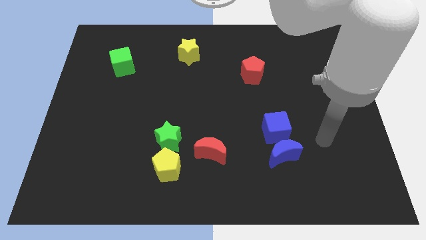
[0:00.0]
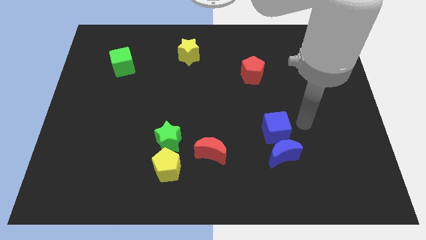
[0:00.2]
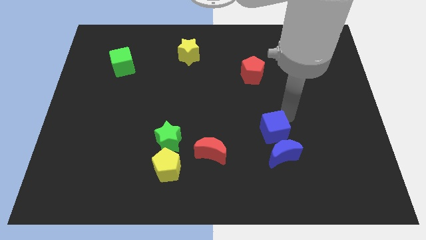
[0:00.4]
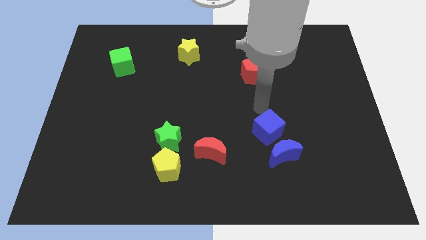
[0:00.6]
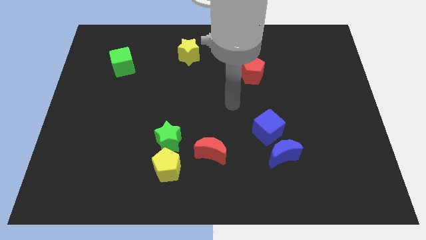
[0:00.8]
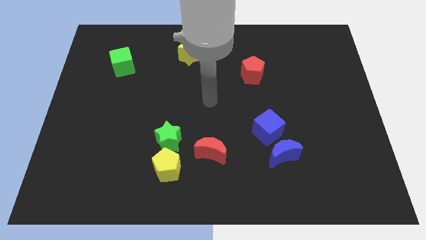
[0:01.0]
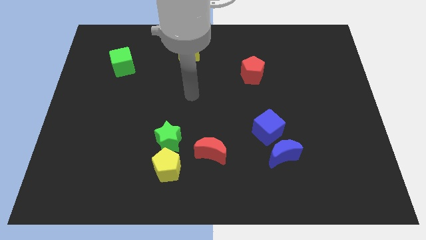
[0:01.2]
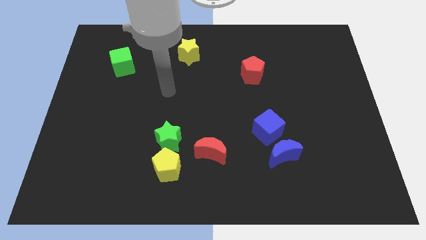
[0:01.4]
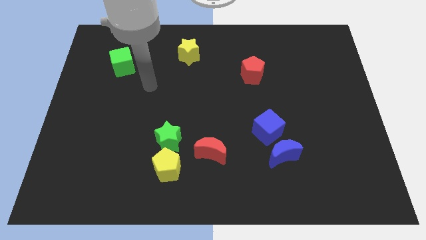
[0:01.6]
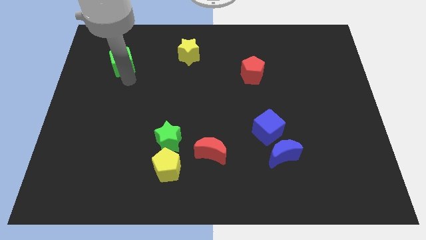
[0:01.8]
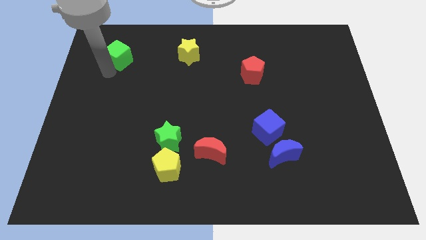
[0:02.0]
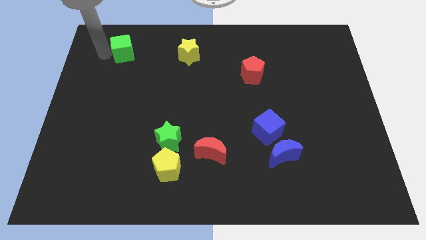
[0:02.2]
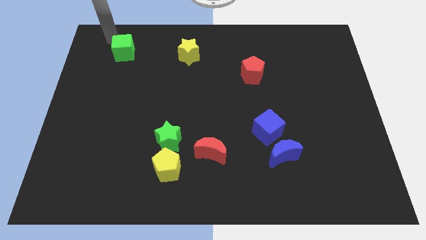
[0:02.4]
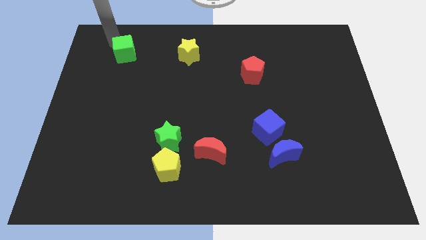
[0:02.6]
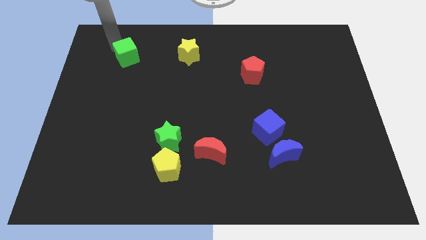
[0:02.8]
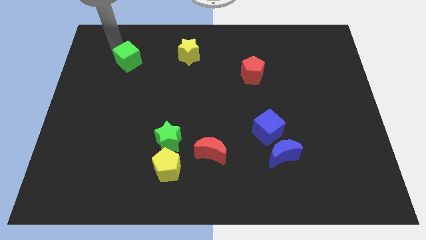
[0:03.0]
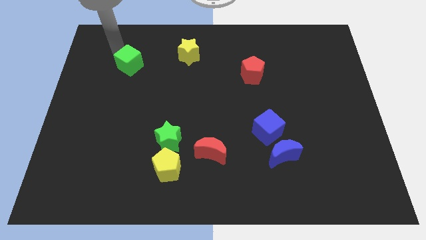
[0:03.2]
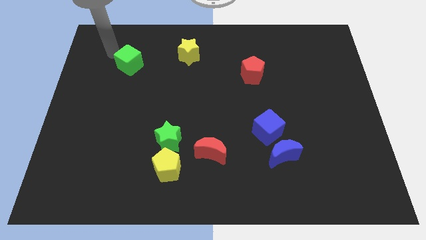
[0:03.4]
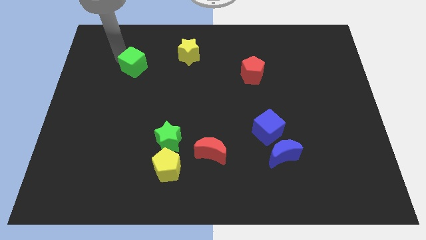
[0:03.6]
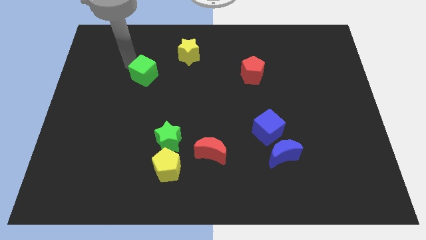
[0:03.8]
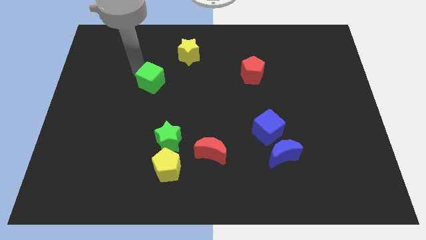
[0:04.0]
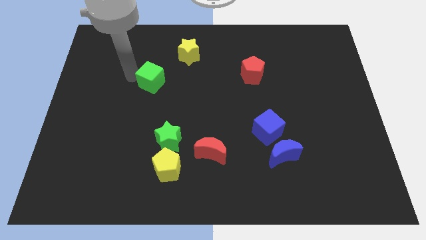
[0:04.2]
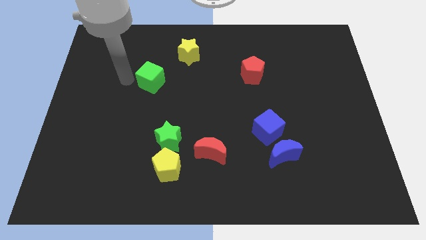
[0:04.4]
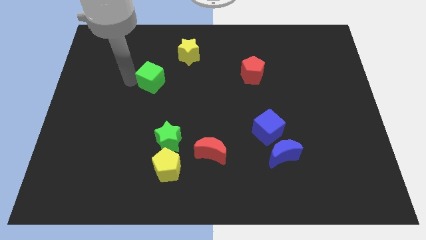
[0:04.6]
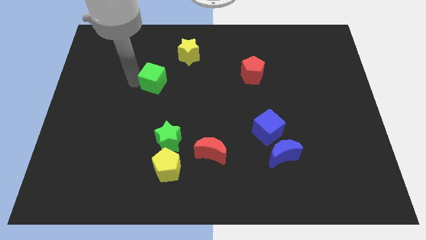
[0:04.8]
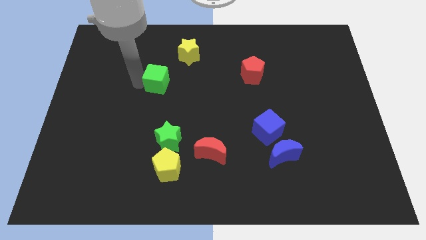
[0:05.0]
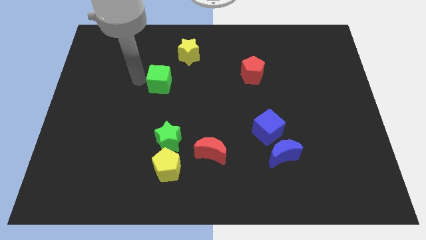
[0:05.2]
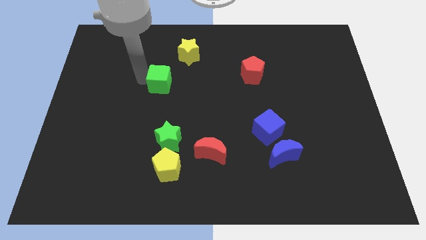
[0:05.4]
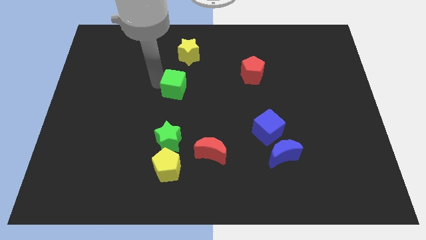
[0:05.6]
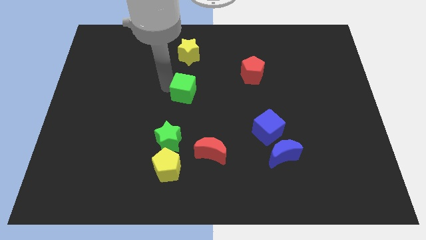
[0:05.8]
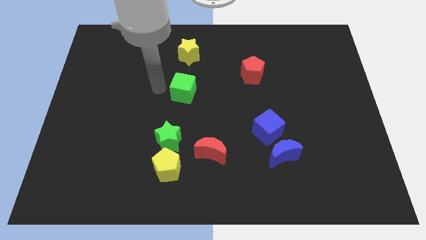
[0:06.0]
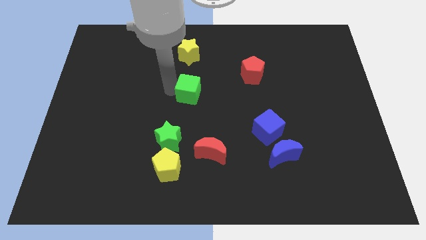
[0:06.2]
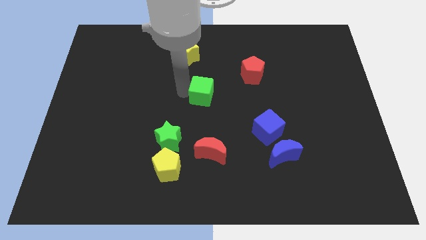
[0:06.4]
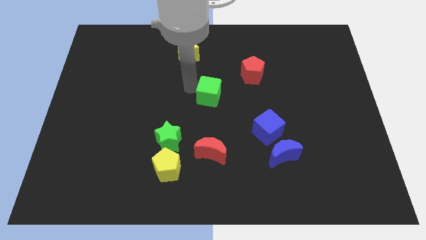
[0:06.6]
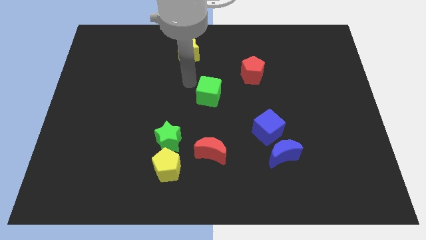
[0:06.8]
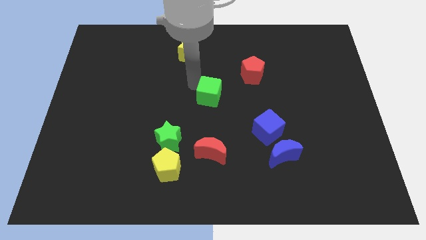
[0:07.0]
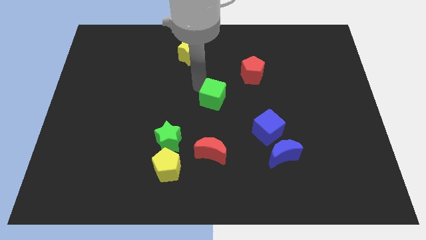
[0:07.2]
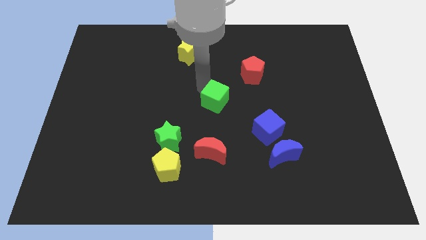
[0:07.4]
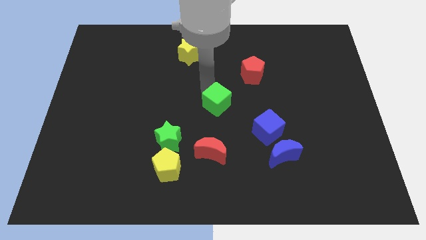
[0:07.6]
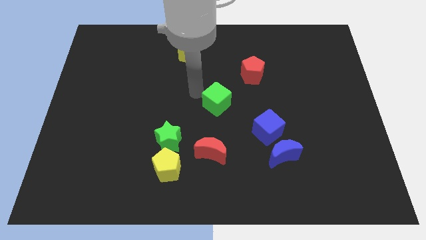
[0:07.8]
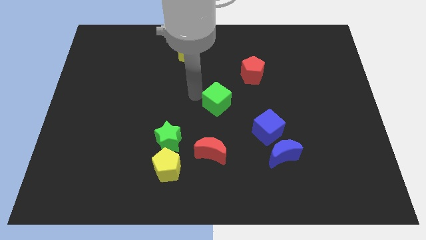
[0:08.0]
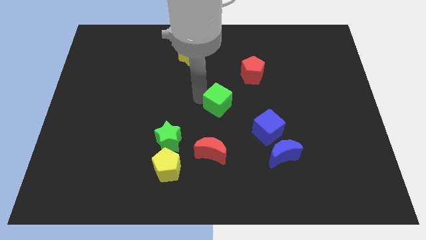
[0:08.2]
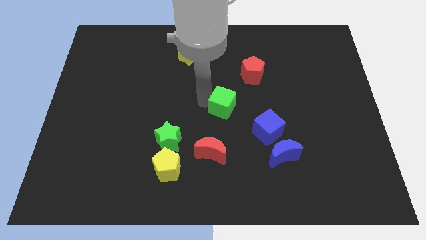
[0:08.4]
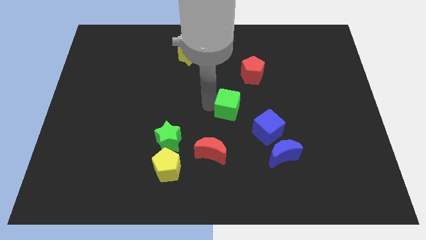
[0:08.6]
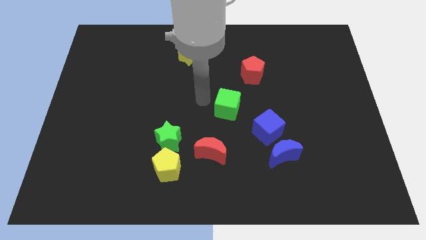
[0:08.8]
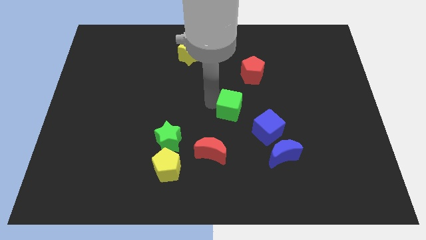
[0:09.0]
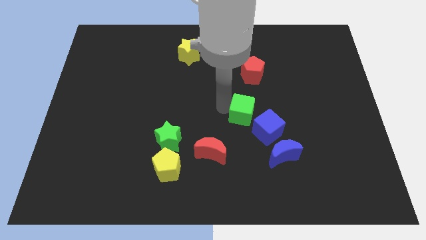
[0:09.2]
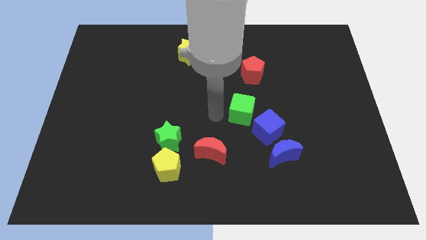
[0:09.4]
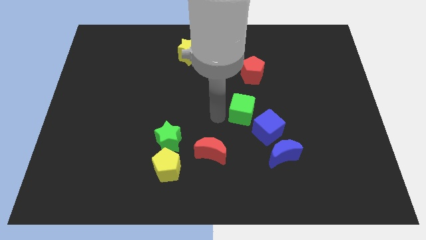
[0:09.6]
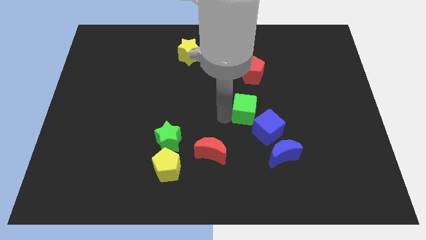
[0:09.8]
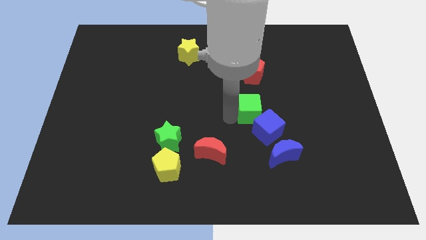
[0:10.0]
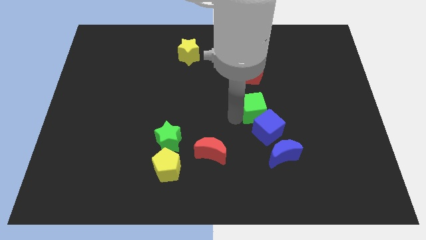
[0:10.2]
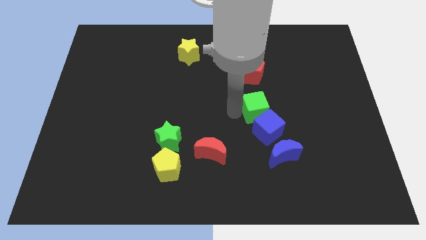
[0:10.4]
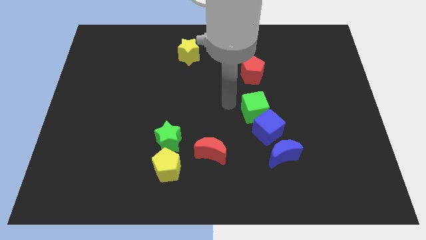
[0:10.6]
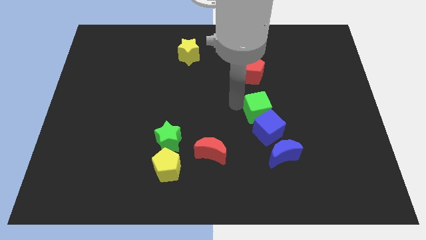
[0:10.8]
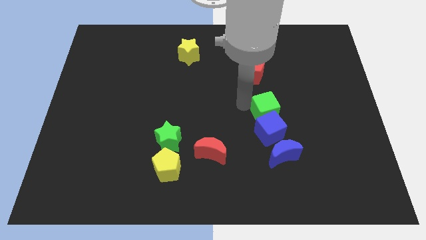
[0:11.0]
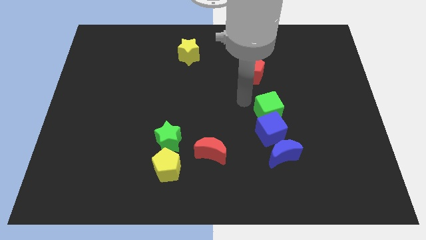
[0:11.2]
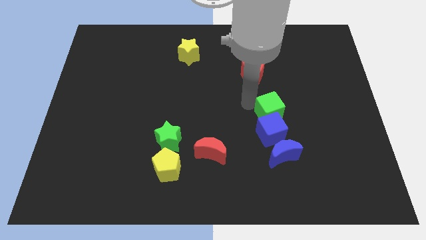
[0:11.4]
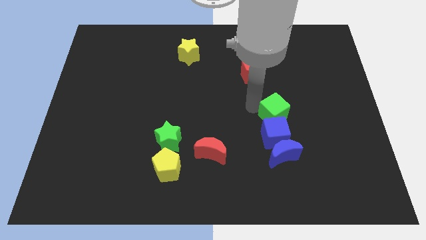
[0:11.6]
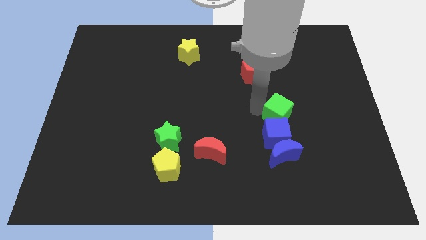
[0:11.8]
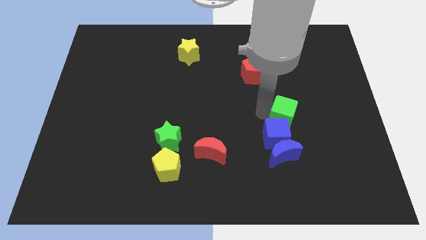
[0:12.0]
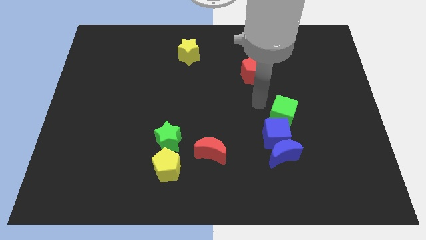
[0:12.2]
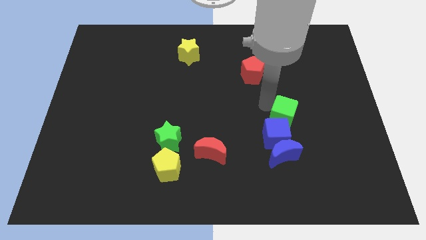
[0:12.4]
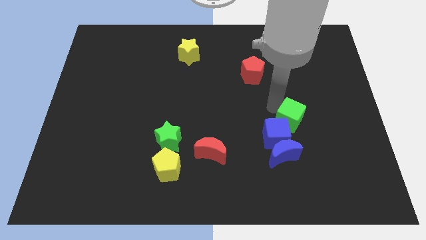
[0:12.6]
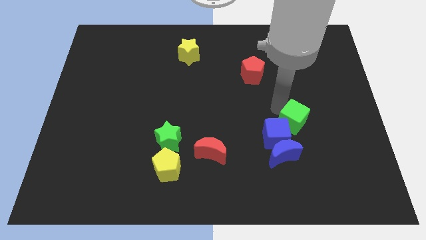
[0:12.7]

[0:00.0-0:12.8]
slide the green cube just right of the blue cube

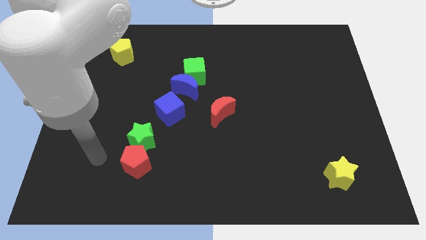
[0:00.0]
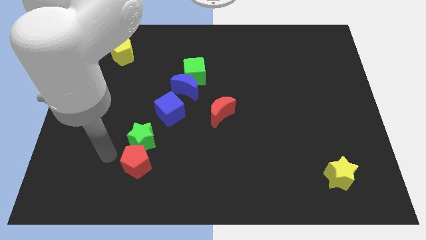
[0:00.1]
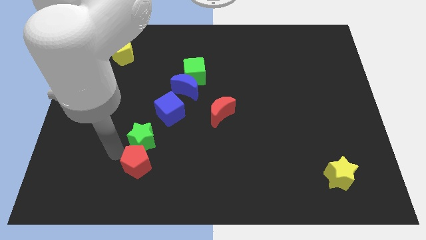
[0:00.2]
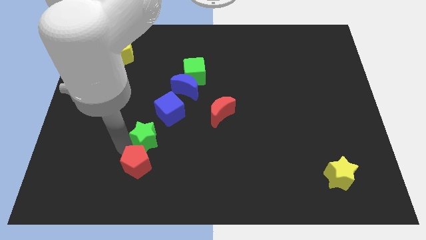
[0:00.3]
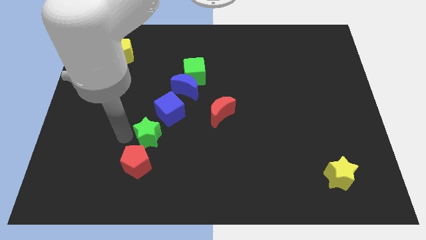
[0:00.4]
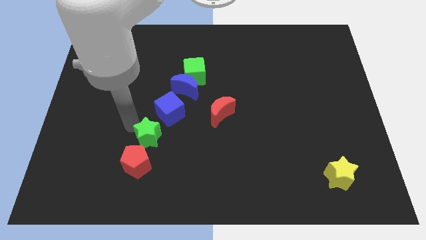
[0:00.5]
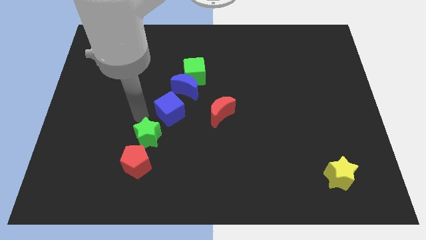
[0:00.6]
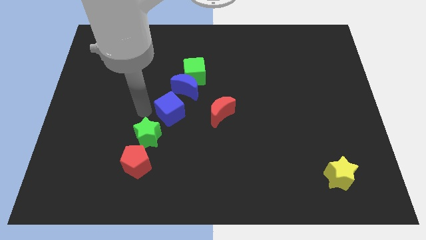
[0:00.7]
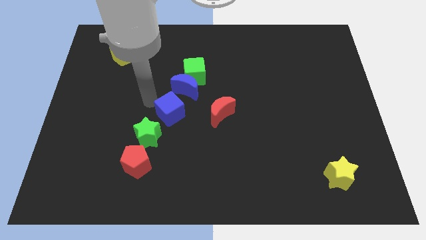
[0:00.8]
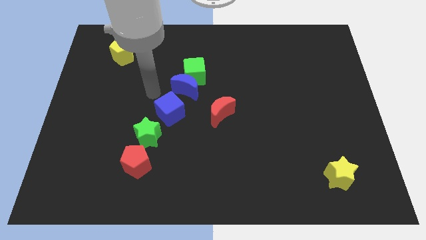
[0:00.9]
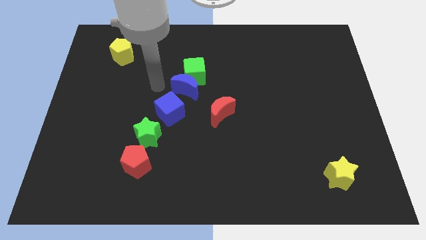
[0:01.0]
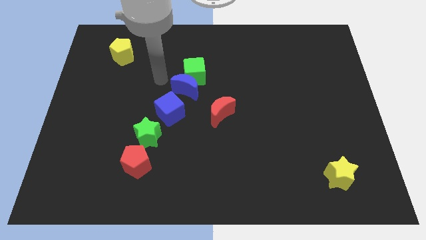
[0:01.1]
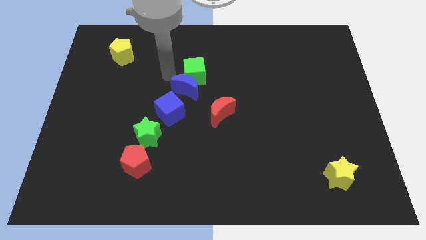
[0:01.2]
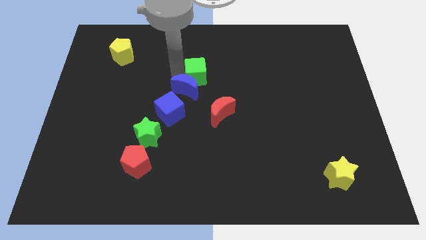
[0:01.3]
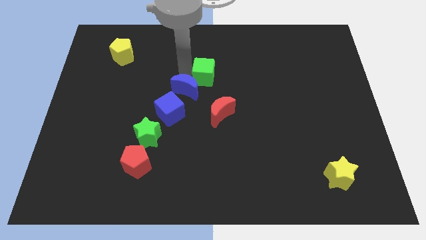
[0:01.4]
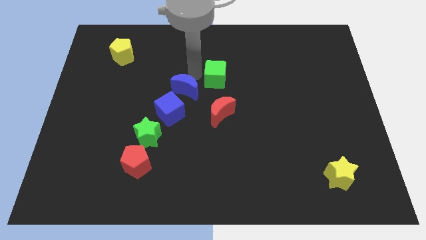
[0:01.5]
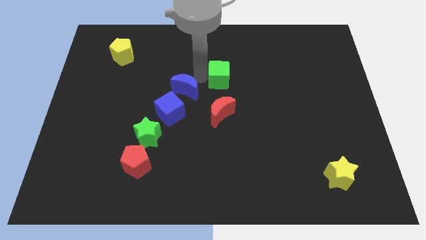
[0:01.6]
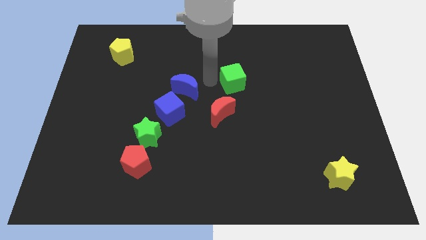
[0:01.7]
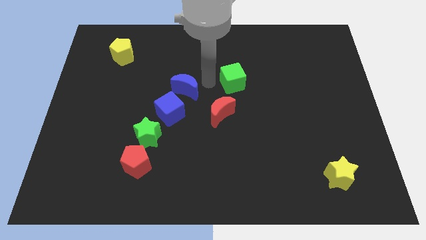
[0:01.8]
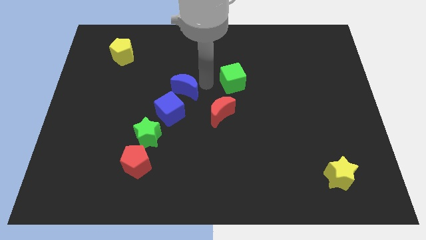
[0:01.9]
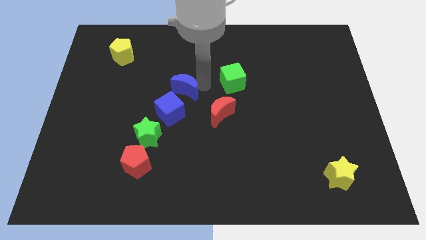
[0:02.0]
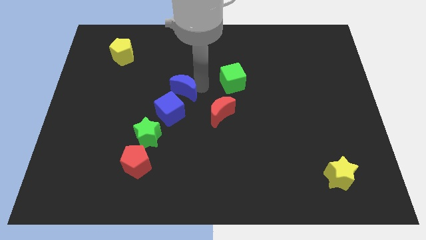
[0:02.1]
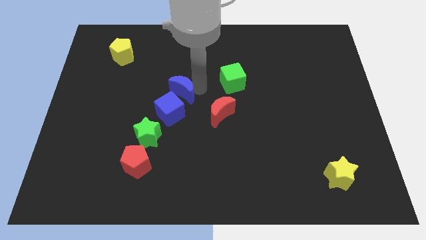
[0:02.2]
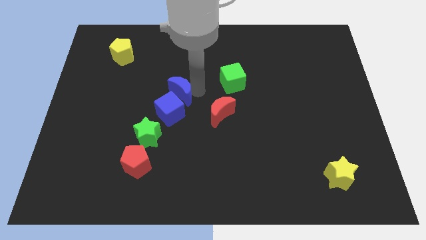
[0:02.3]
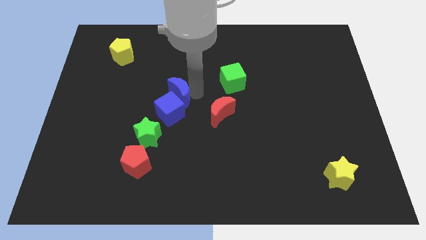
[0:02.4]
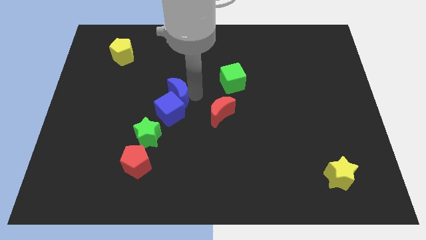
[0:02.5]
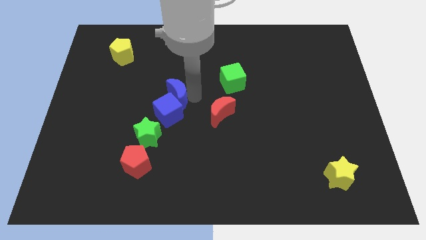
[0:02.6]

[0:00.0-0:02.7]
slide the blue moon to the left of the red moon
